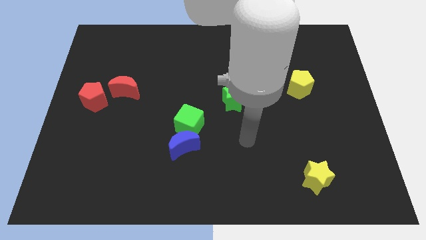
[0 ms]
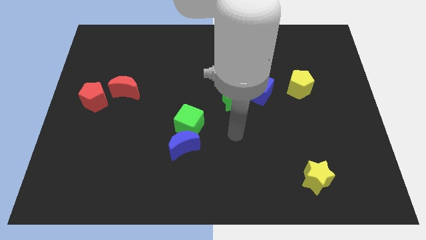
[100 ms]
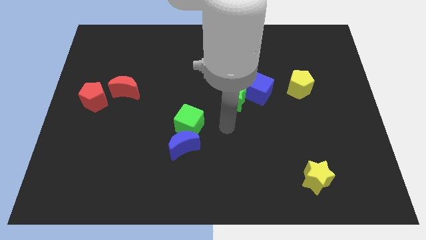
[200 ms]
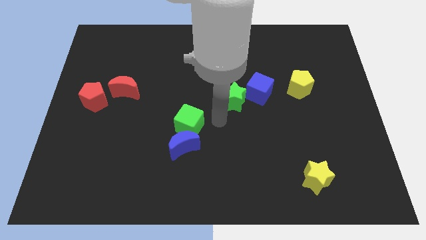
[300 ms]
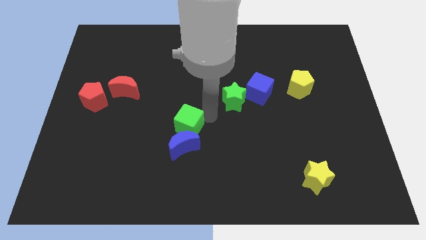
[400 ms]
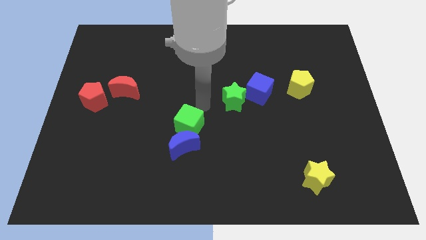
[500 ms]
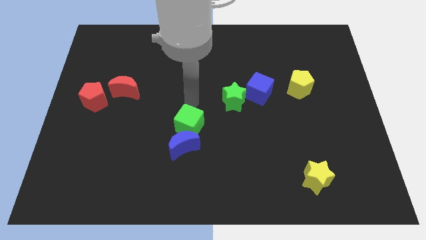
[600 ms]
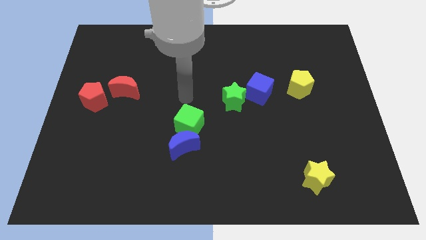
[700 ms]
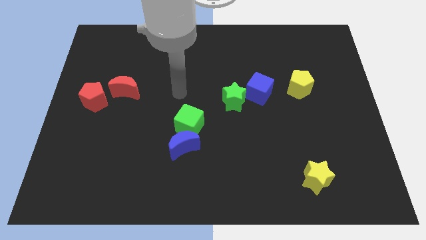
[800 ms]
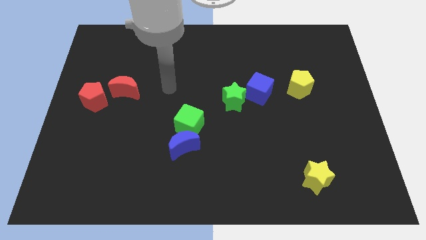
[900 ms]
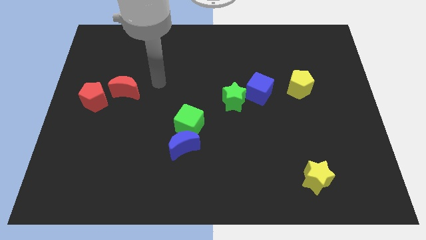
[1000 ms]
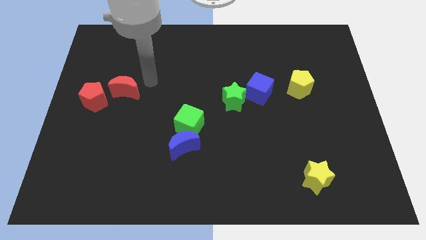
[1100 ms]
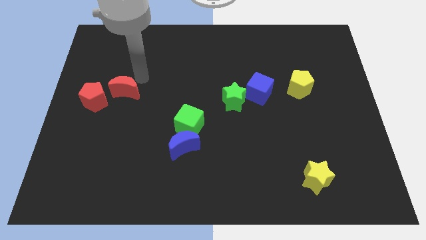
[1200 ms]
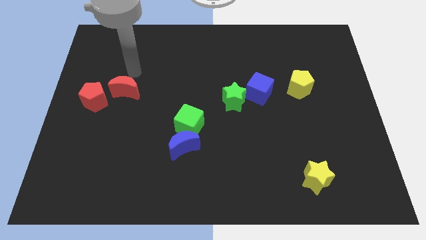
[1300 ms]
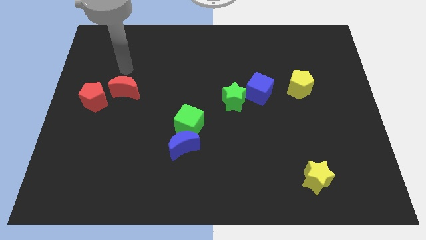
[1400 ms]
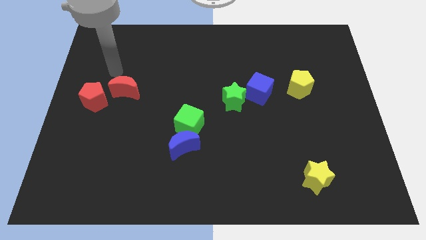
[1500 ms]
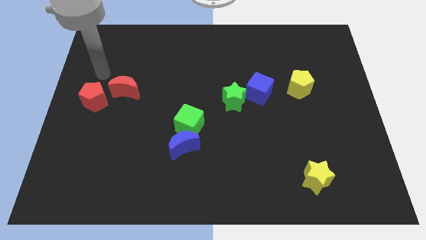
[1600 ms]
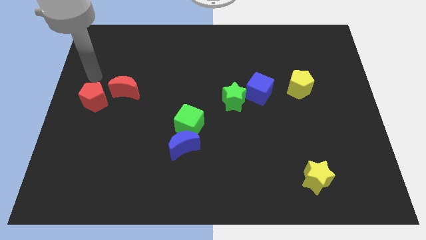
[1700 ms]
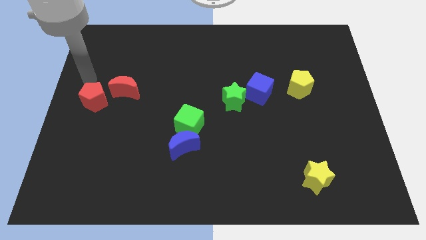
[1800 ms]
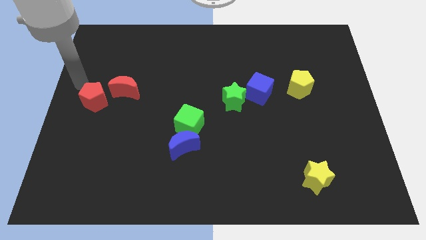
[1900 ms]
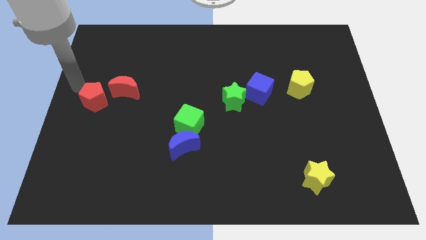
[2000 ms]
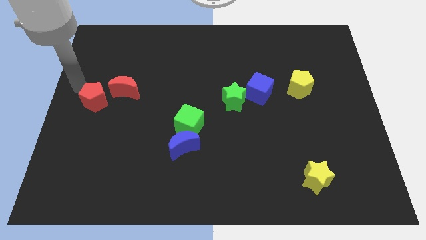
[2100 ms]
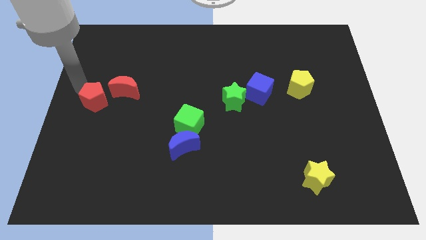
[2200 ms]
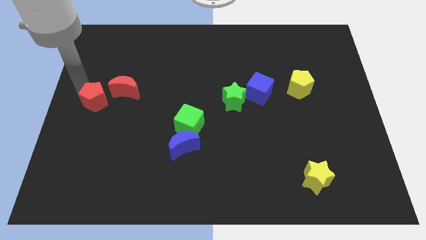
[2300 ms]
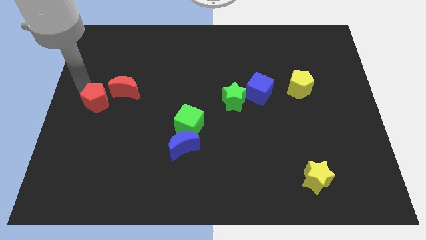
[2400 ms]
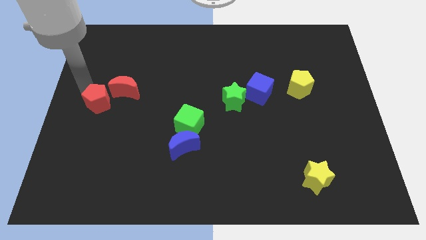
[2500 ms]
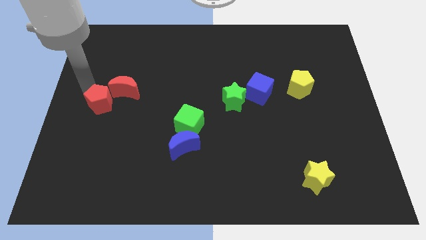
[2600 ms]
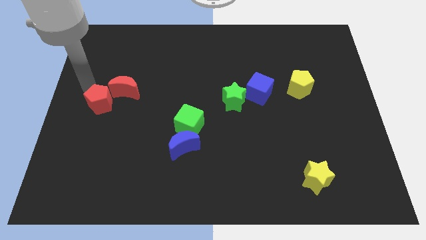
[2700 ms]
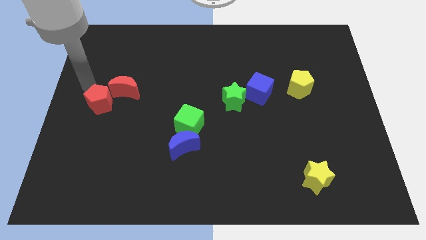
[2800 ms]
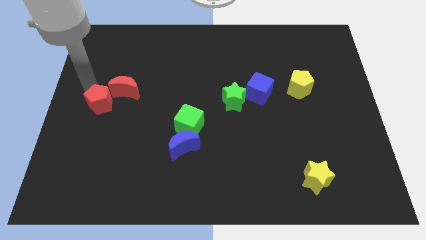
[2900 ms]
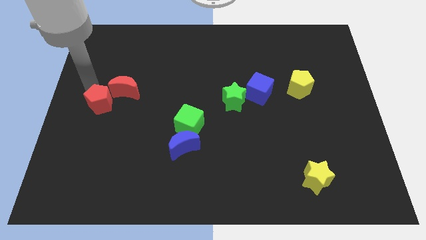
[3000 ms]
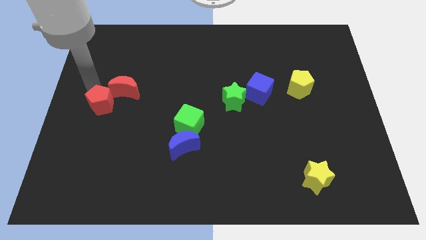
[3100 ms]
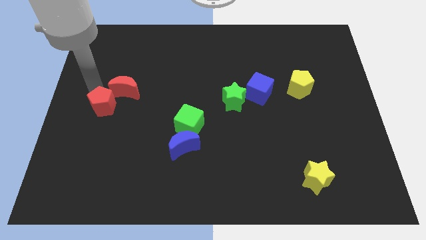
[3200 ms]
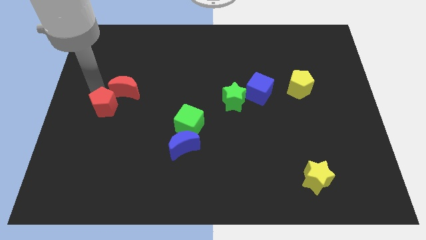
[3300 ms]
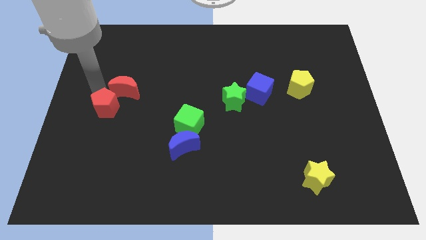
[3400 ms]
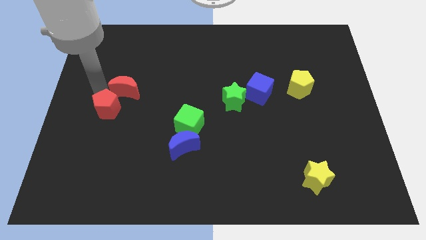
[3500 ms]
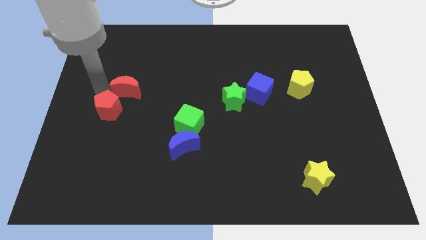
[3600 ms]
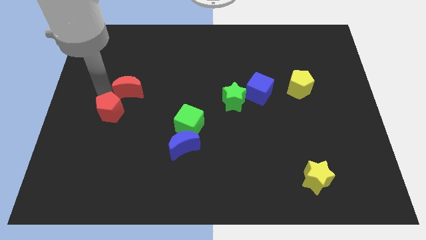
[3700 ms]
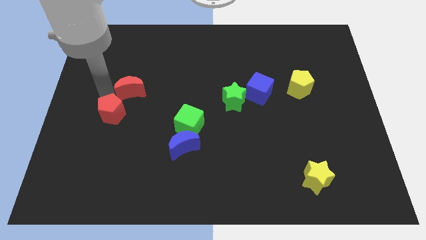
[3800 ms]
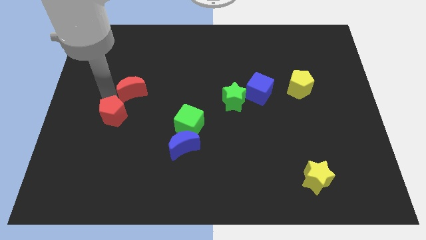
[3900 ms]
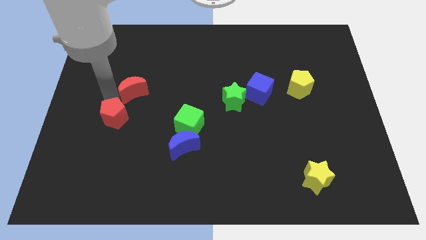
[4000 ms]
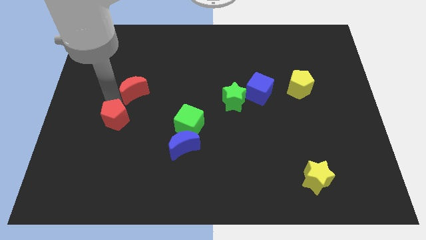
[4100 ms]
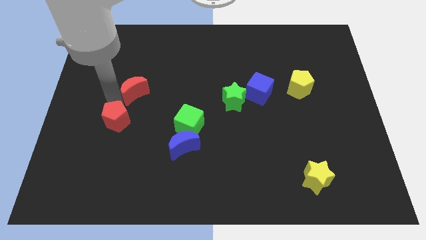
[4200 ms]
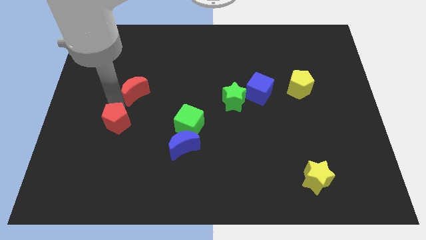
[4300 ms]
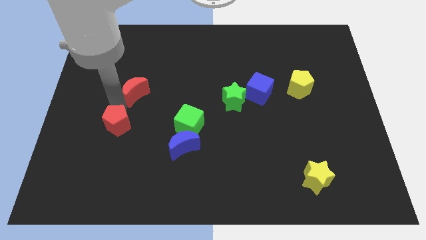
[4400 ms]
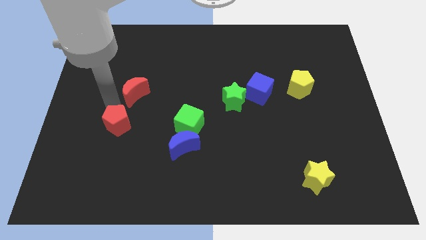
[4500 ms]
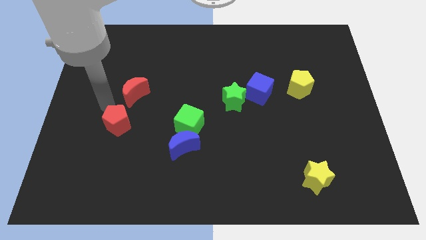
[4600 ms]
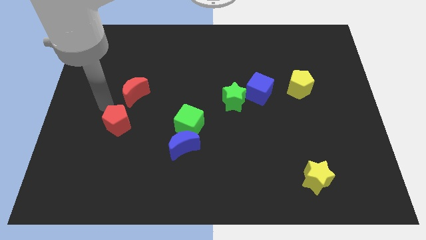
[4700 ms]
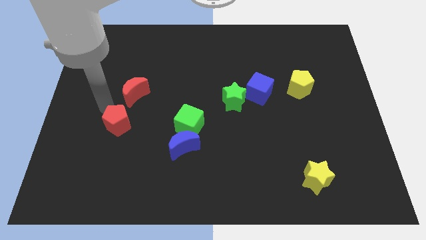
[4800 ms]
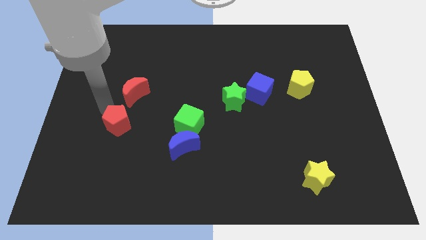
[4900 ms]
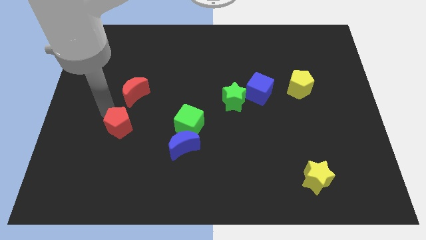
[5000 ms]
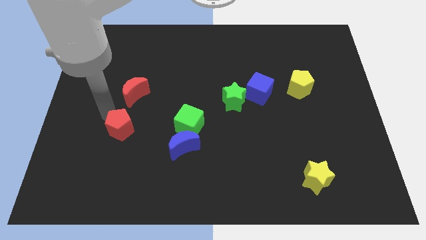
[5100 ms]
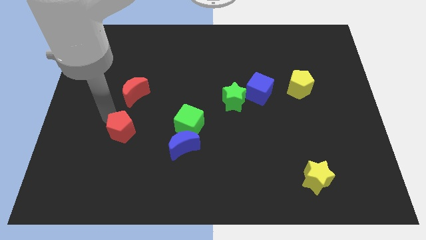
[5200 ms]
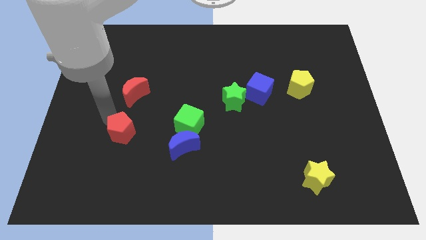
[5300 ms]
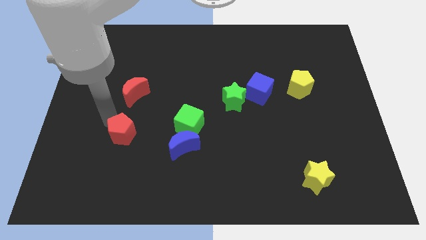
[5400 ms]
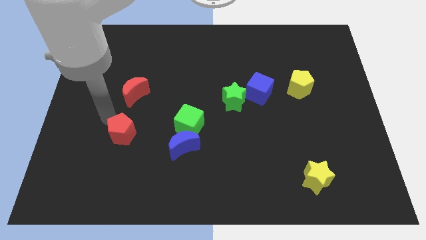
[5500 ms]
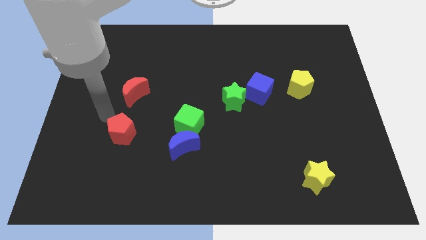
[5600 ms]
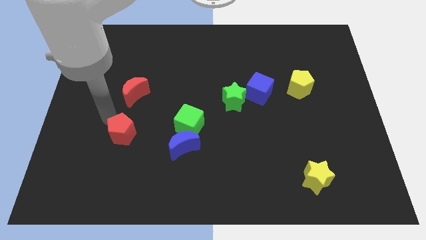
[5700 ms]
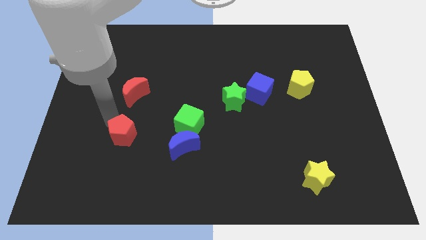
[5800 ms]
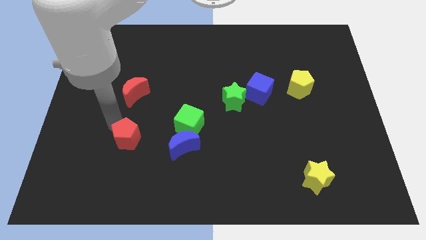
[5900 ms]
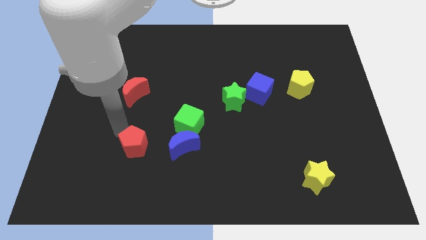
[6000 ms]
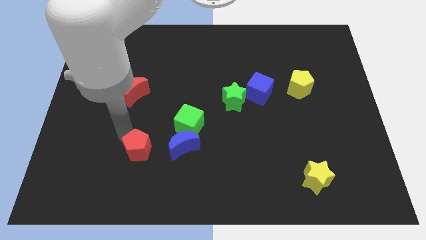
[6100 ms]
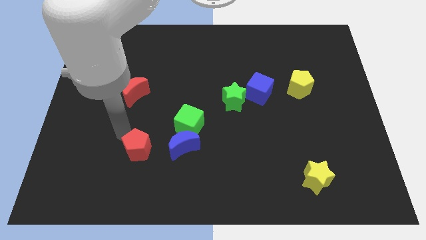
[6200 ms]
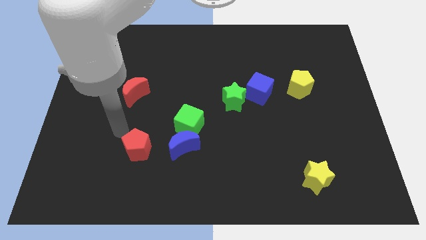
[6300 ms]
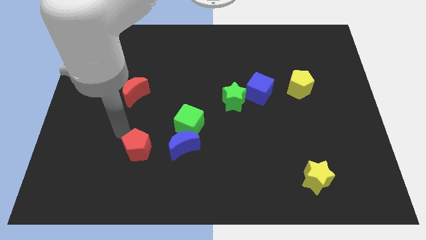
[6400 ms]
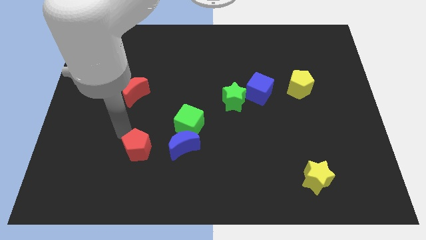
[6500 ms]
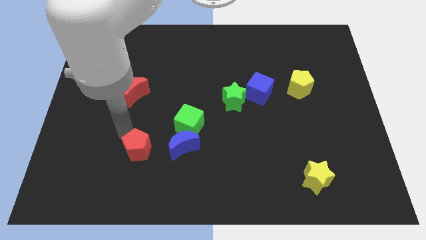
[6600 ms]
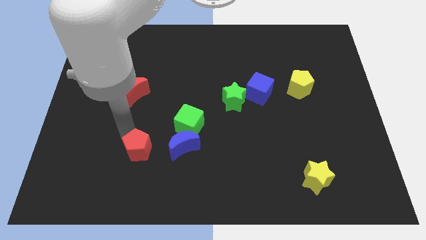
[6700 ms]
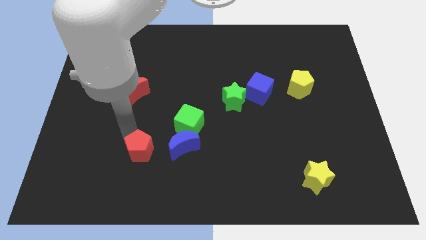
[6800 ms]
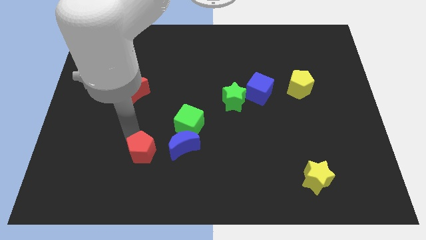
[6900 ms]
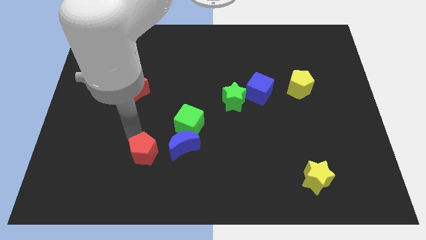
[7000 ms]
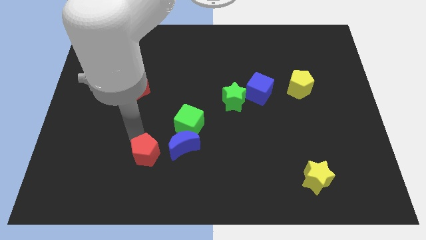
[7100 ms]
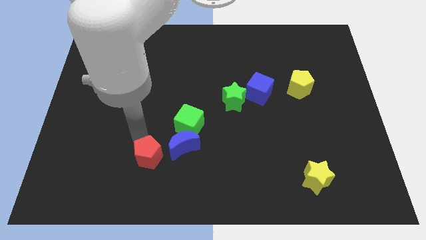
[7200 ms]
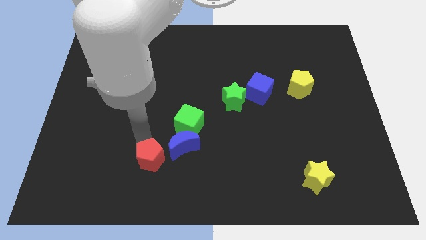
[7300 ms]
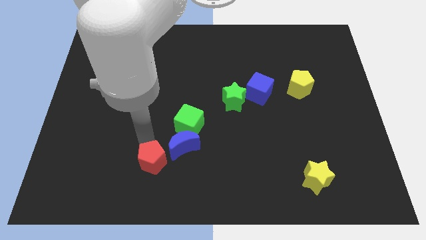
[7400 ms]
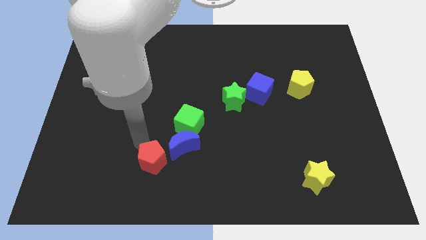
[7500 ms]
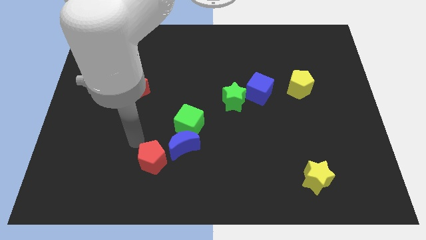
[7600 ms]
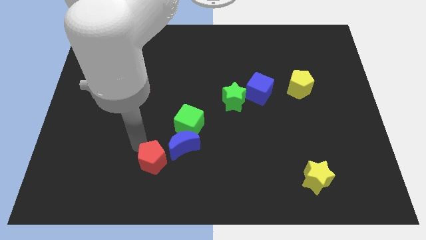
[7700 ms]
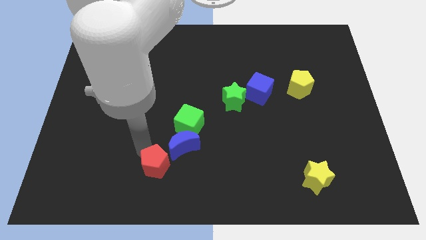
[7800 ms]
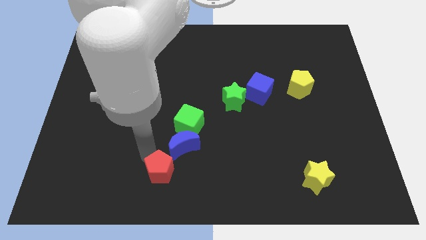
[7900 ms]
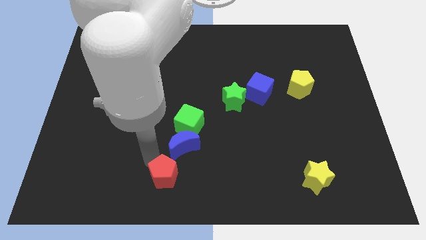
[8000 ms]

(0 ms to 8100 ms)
slide the red pentagon to the bottom
